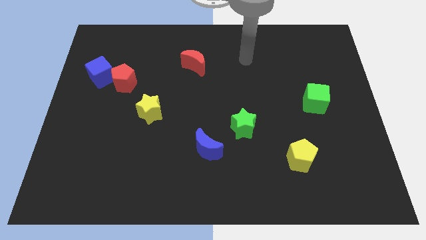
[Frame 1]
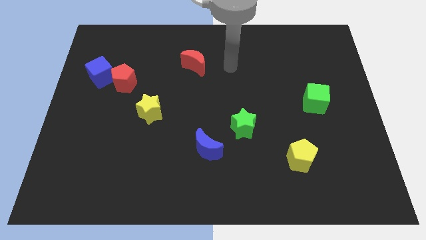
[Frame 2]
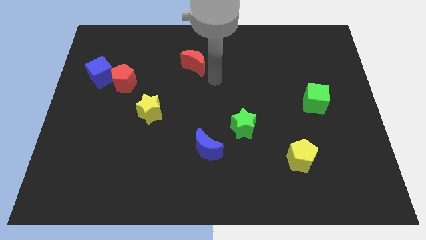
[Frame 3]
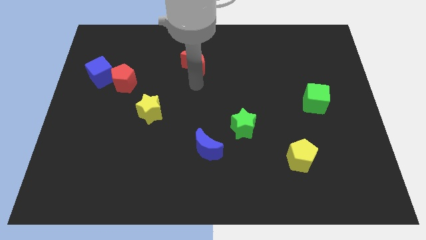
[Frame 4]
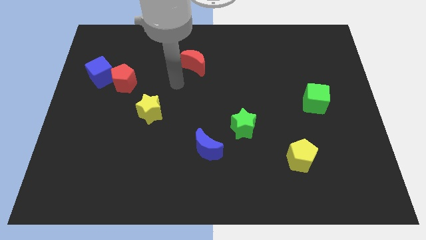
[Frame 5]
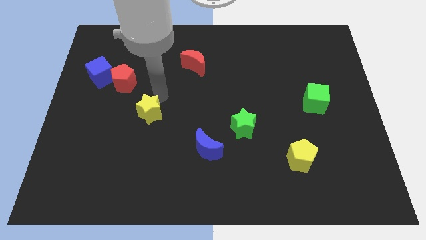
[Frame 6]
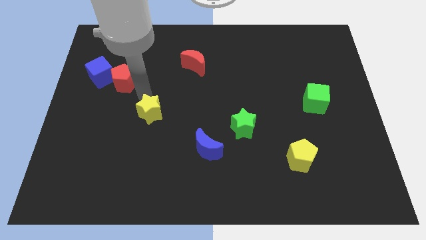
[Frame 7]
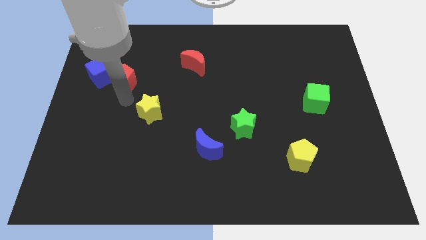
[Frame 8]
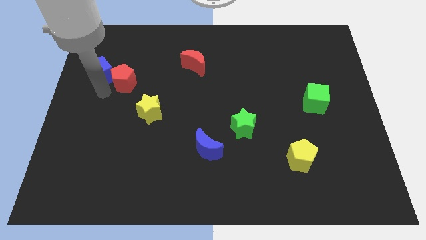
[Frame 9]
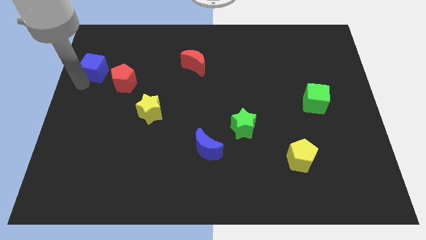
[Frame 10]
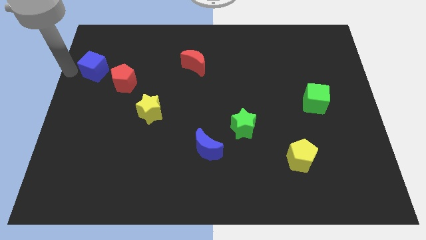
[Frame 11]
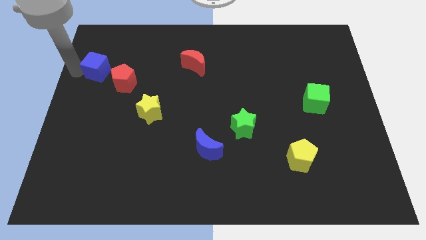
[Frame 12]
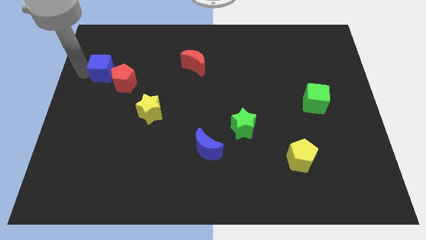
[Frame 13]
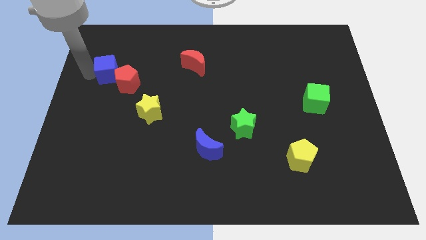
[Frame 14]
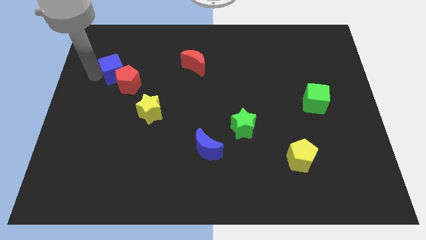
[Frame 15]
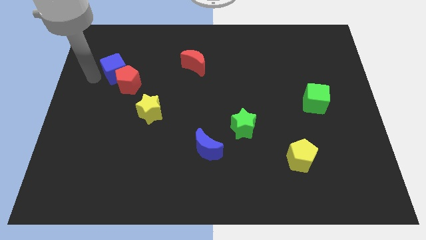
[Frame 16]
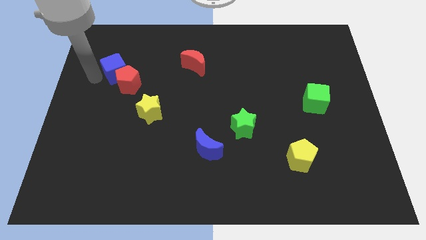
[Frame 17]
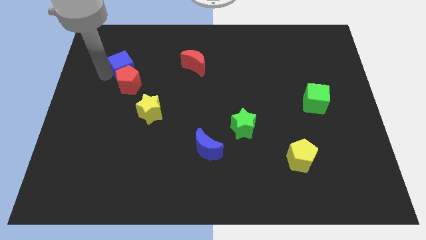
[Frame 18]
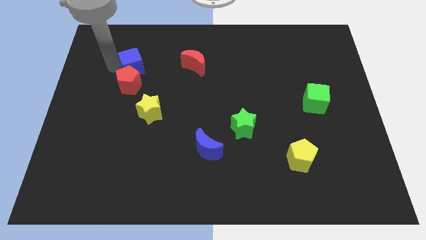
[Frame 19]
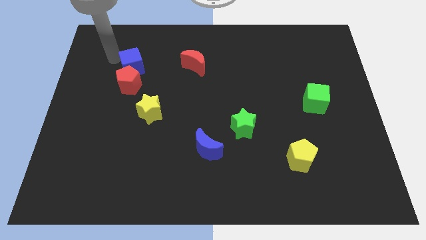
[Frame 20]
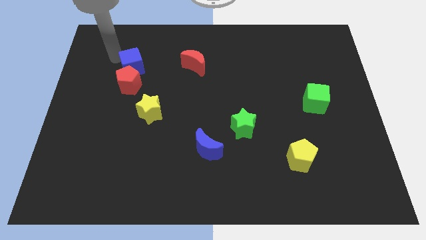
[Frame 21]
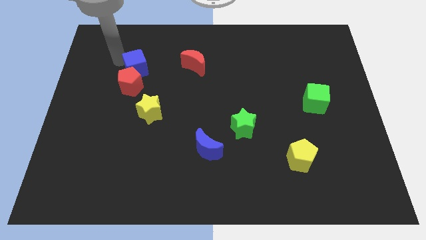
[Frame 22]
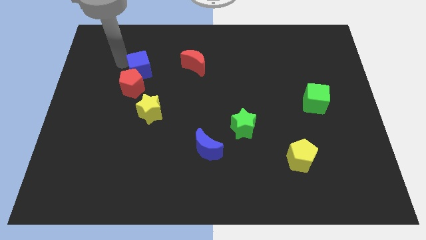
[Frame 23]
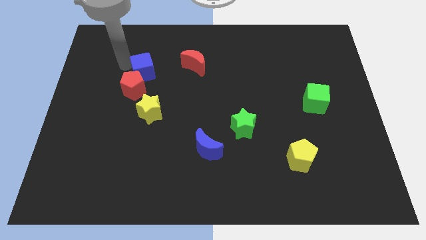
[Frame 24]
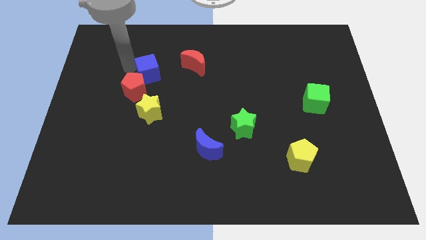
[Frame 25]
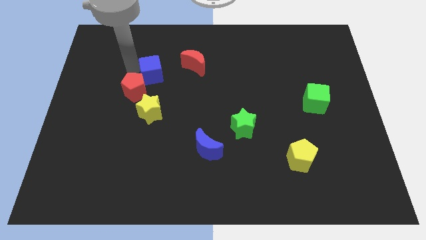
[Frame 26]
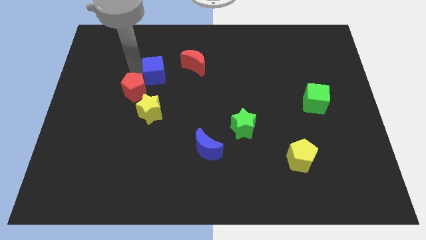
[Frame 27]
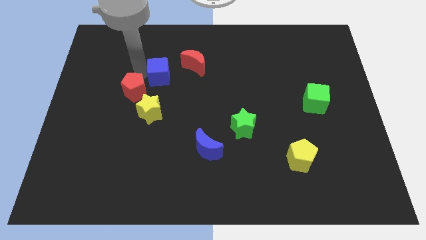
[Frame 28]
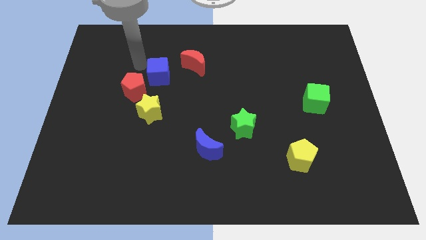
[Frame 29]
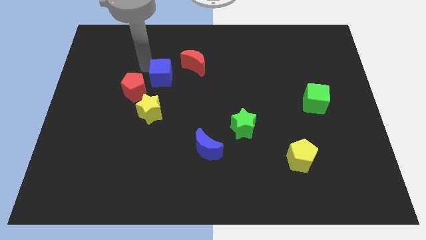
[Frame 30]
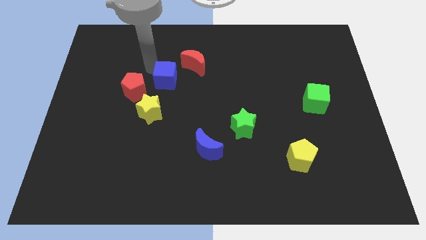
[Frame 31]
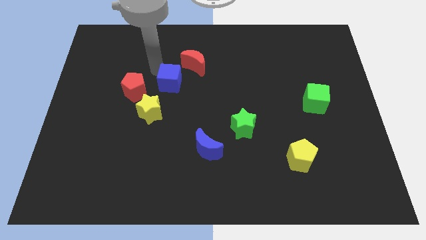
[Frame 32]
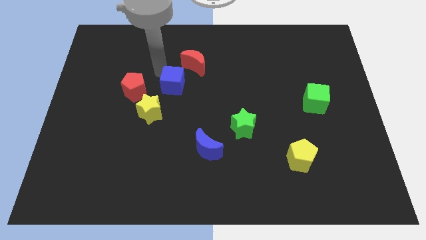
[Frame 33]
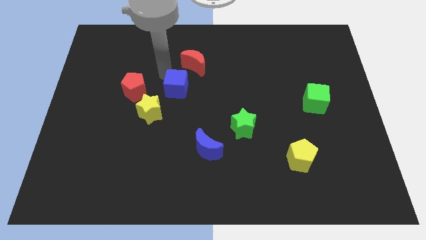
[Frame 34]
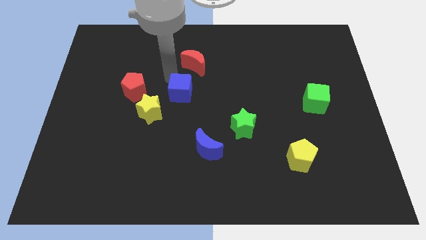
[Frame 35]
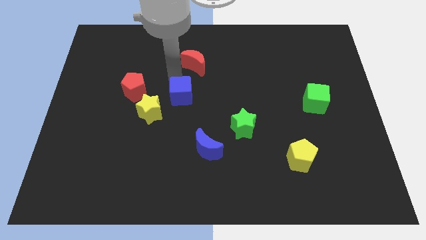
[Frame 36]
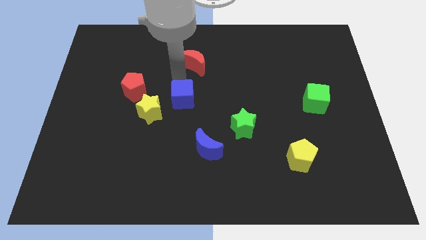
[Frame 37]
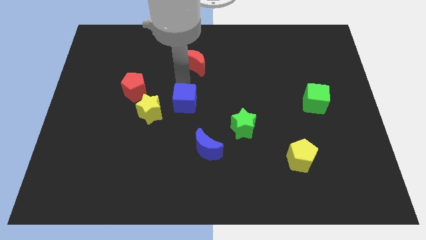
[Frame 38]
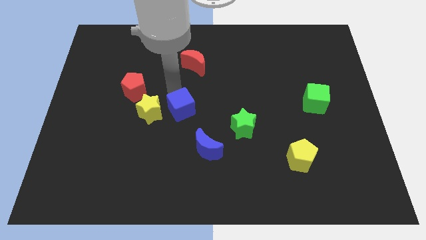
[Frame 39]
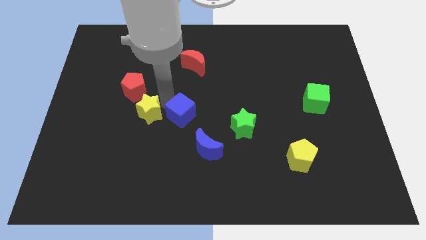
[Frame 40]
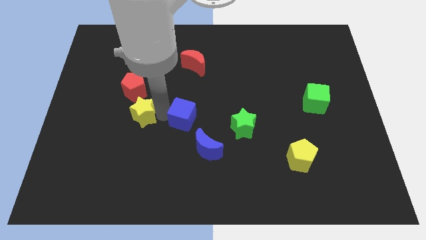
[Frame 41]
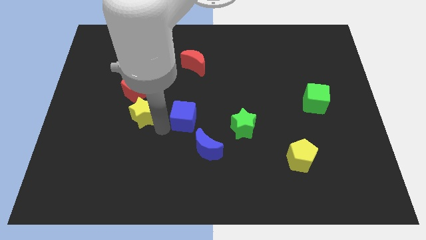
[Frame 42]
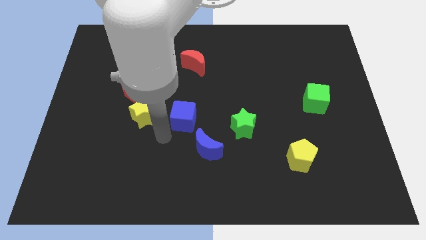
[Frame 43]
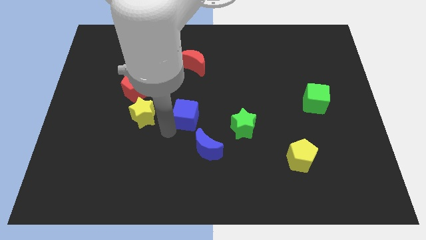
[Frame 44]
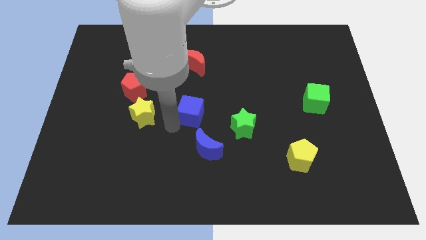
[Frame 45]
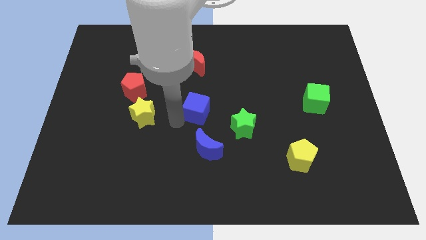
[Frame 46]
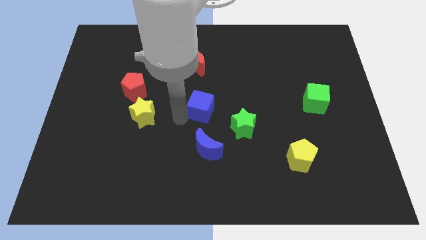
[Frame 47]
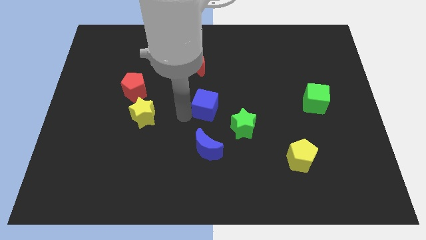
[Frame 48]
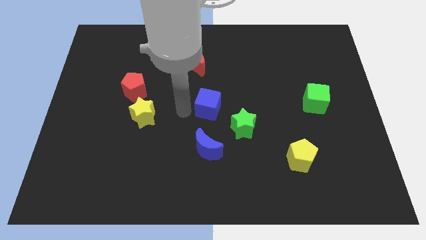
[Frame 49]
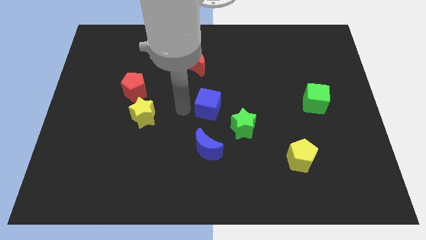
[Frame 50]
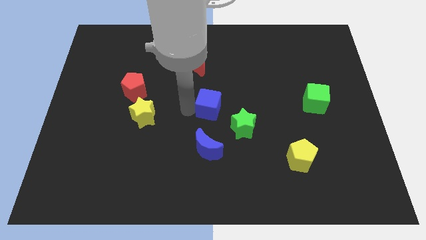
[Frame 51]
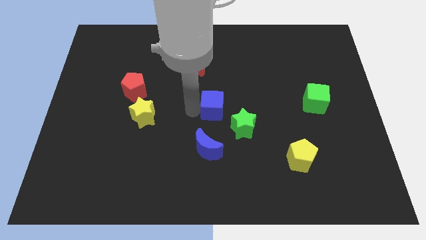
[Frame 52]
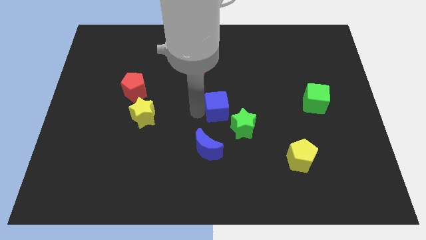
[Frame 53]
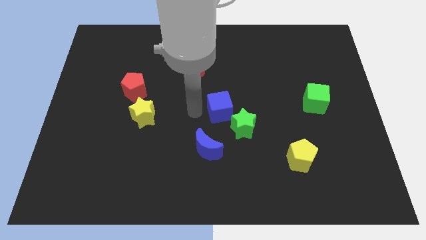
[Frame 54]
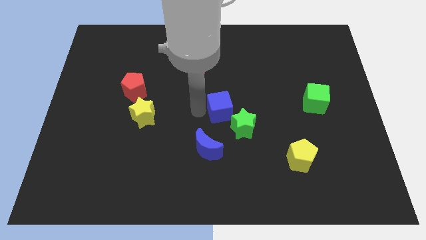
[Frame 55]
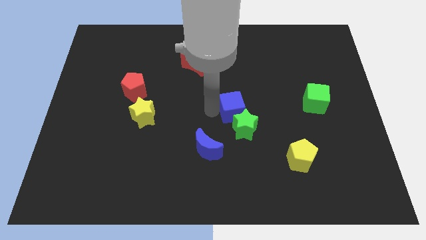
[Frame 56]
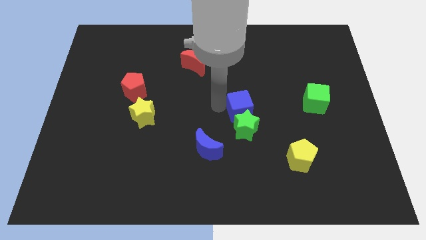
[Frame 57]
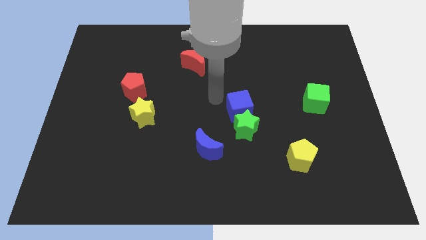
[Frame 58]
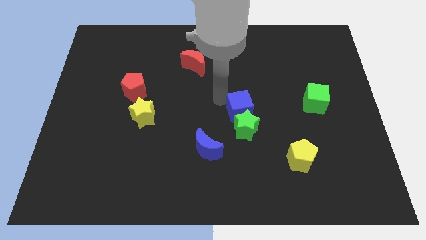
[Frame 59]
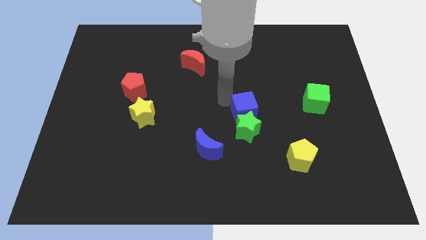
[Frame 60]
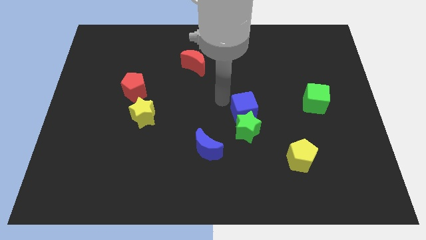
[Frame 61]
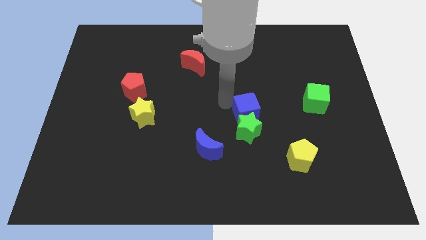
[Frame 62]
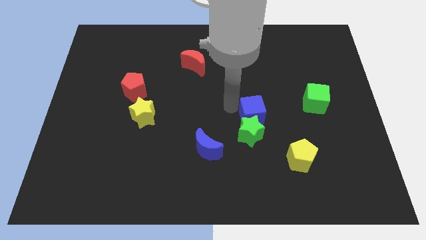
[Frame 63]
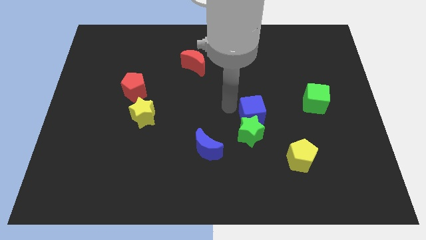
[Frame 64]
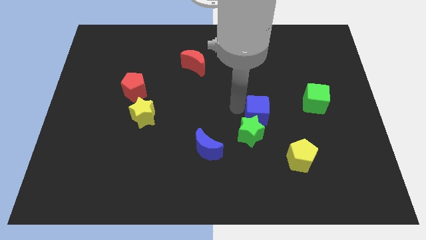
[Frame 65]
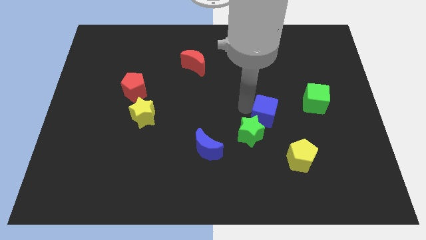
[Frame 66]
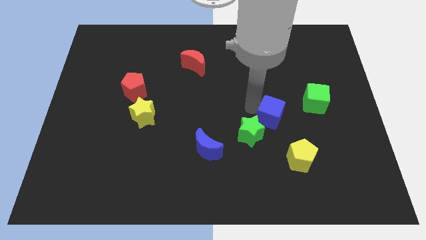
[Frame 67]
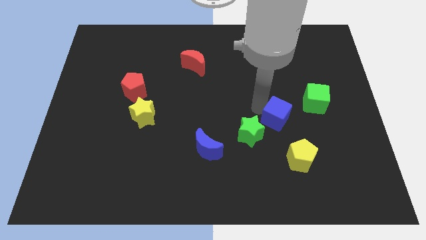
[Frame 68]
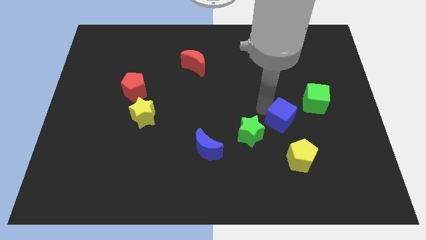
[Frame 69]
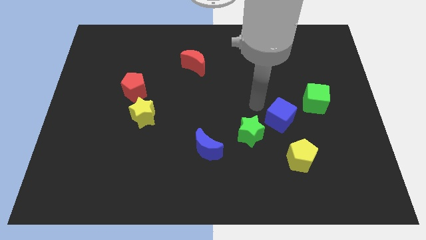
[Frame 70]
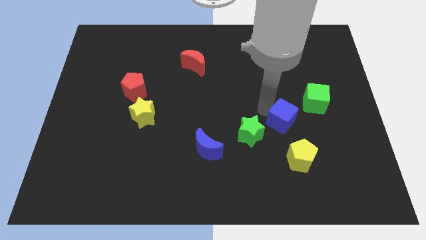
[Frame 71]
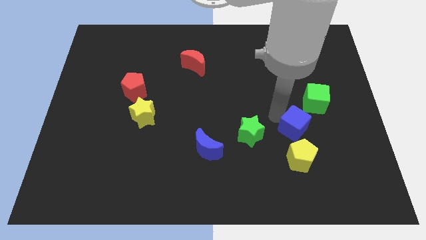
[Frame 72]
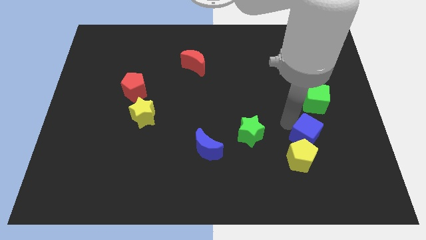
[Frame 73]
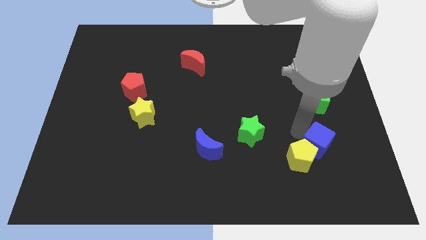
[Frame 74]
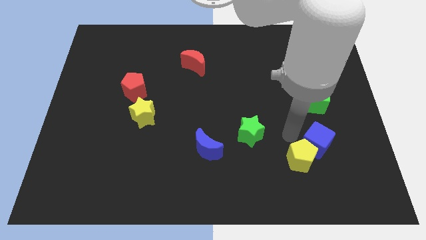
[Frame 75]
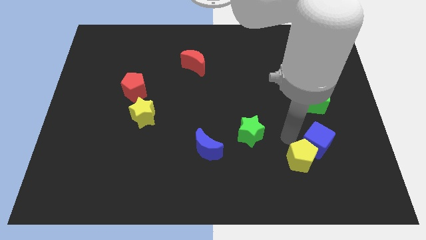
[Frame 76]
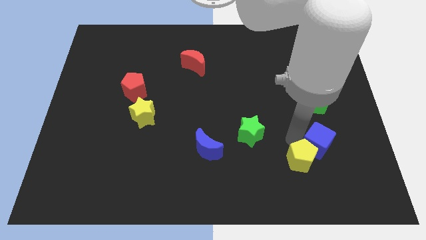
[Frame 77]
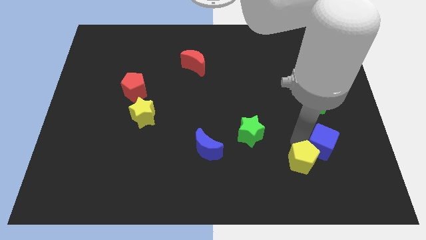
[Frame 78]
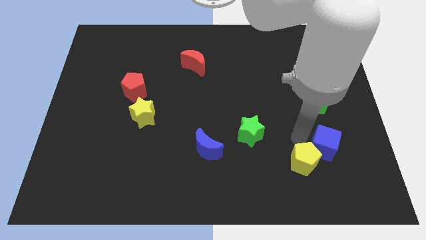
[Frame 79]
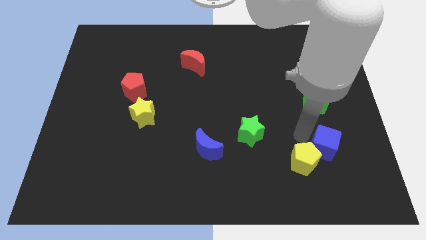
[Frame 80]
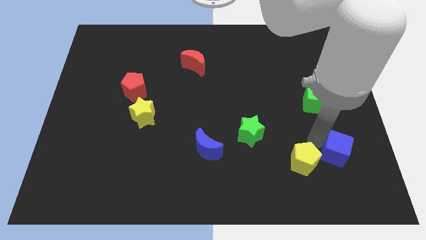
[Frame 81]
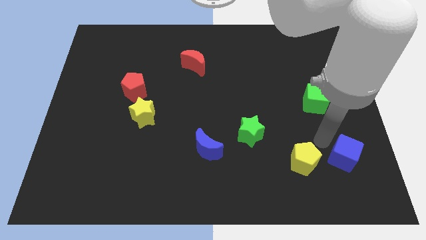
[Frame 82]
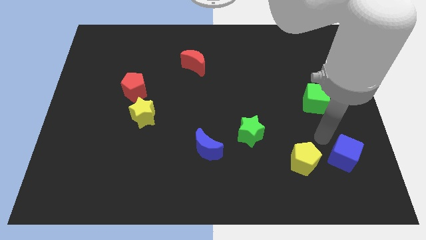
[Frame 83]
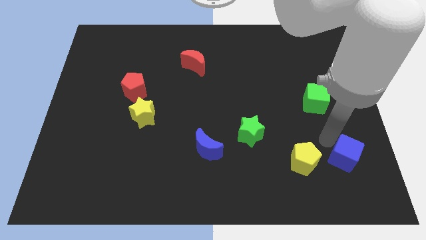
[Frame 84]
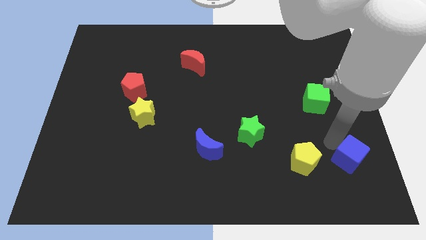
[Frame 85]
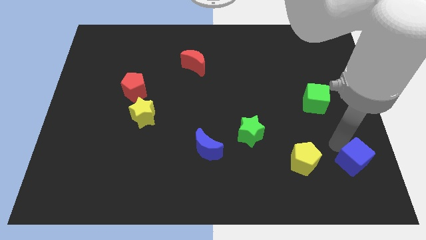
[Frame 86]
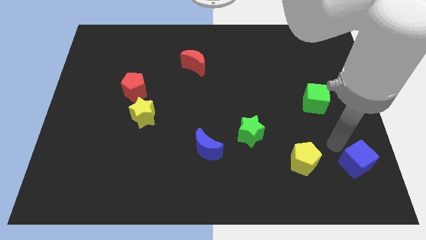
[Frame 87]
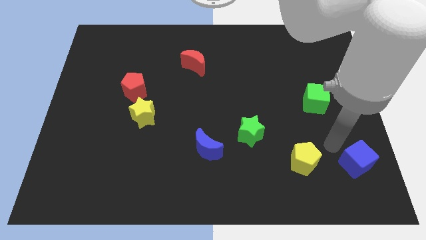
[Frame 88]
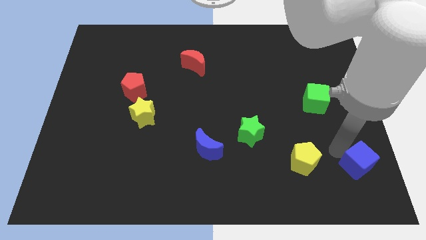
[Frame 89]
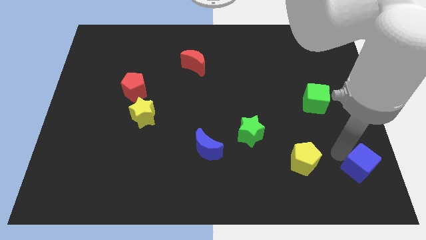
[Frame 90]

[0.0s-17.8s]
slide the blue cube to the lower right corner
